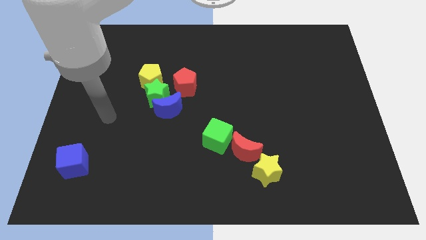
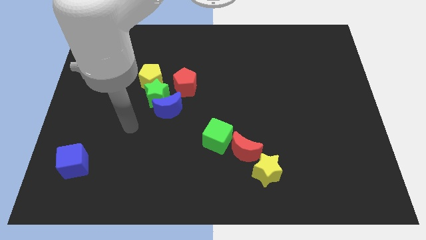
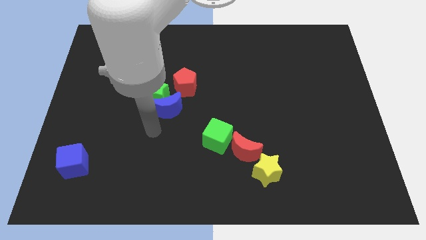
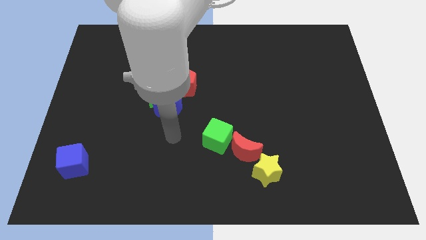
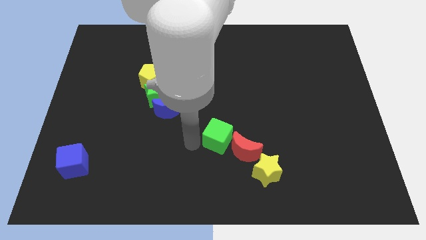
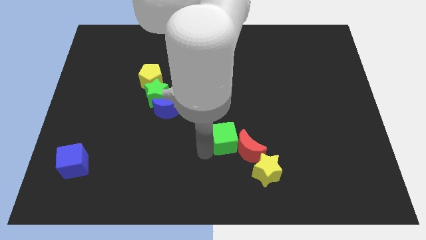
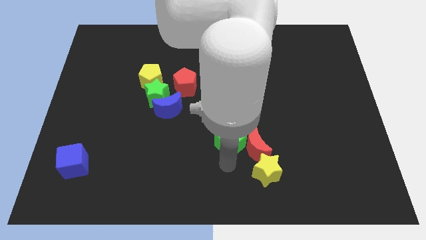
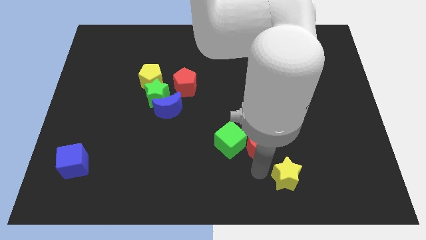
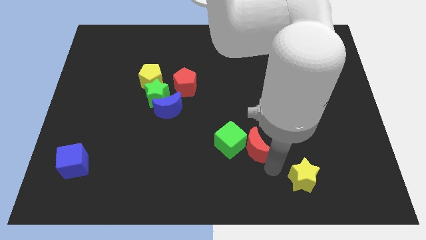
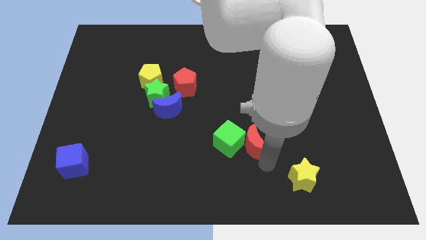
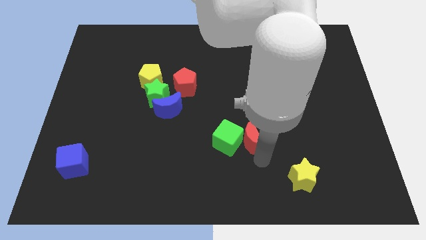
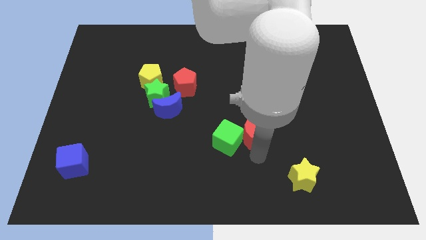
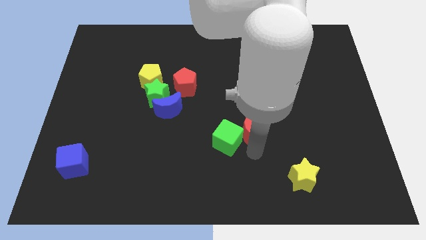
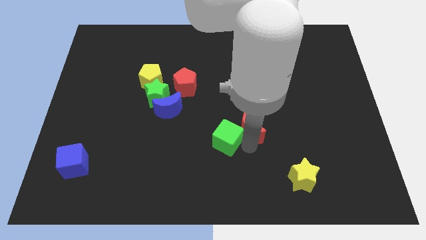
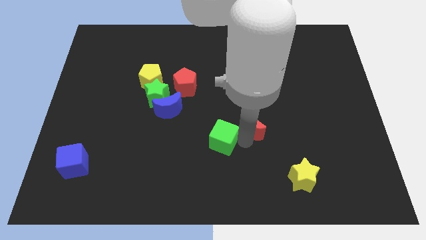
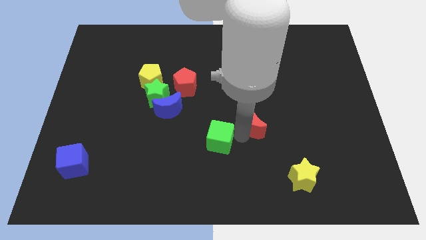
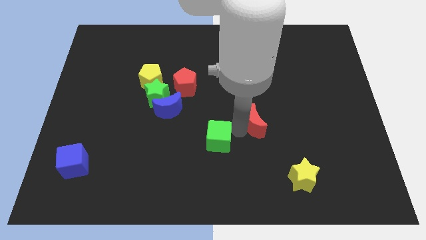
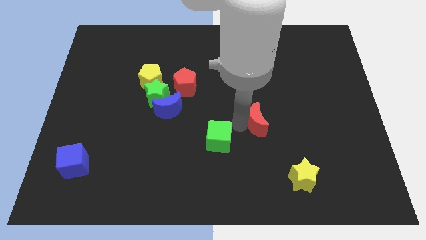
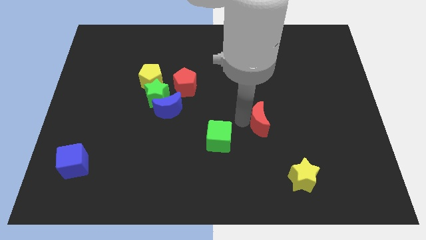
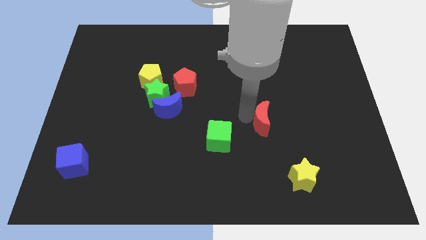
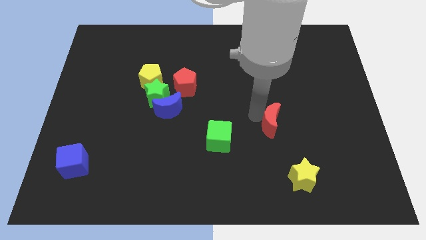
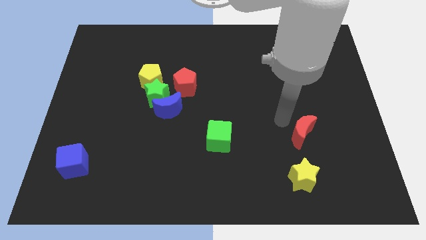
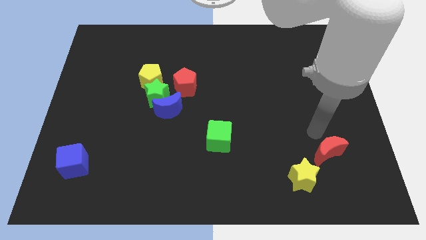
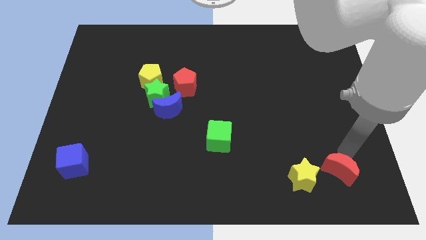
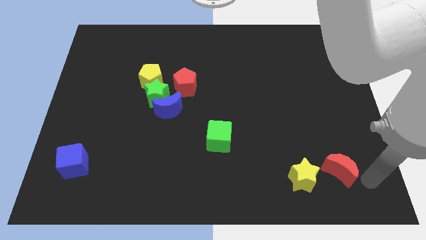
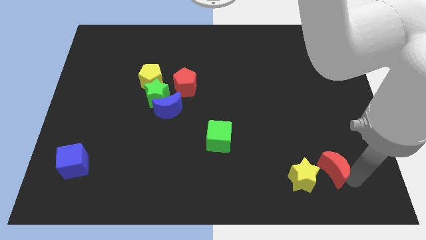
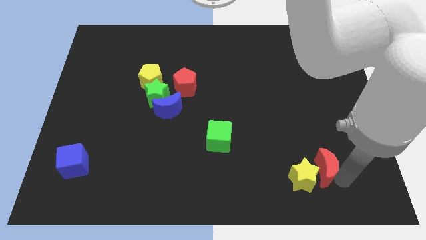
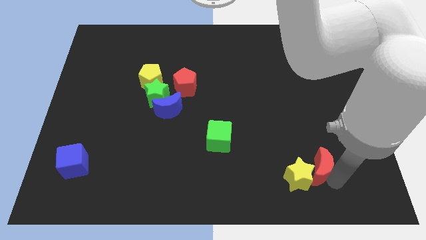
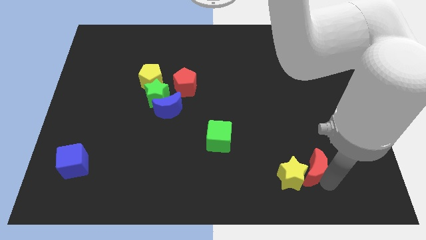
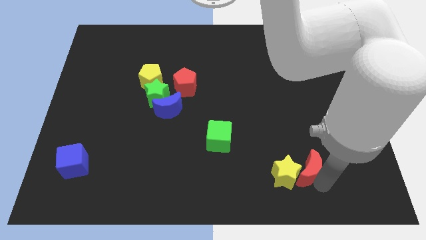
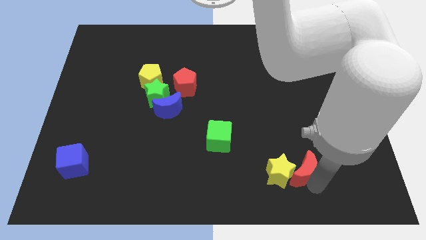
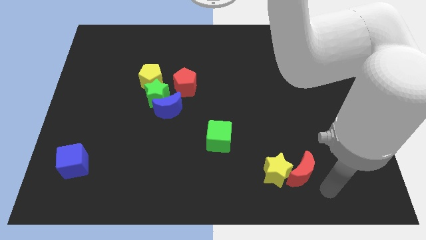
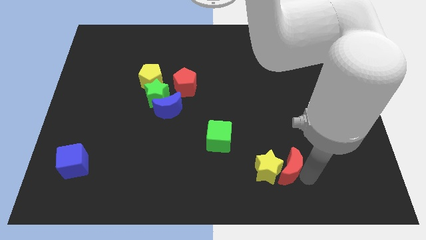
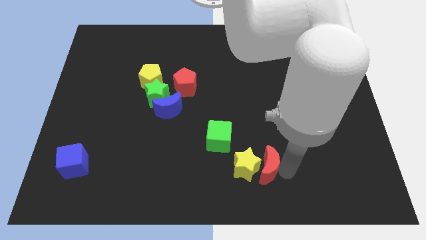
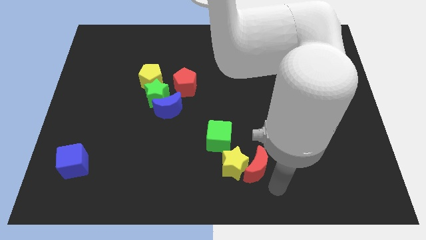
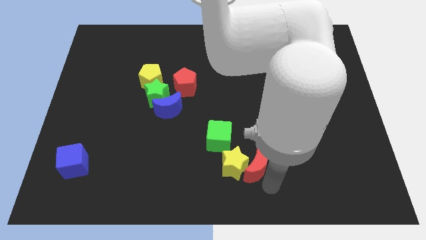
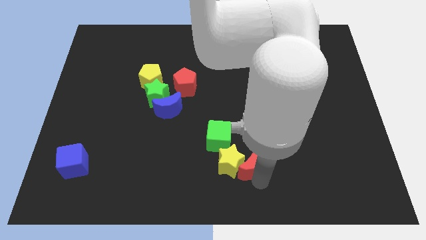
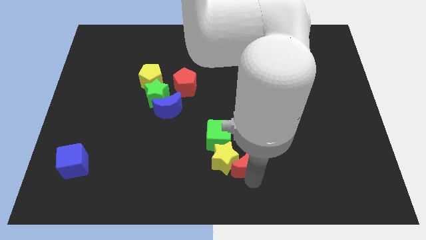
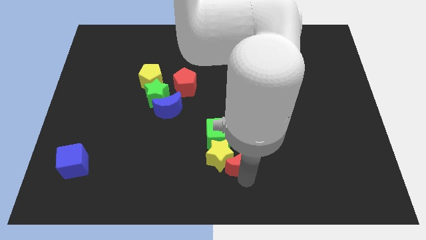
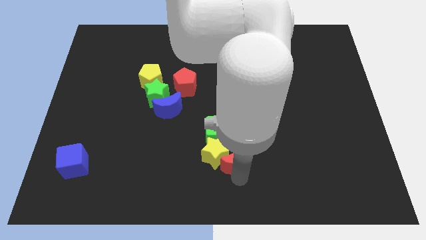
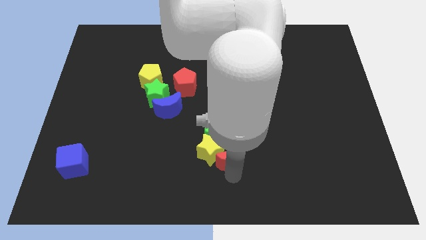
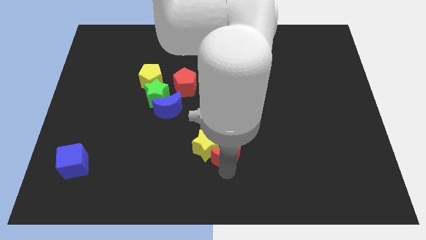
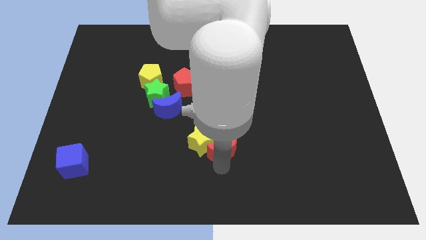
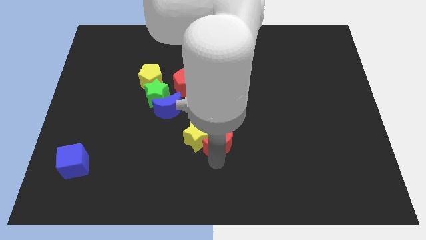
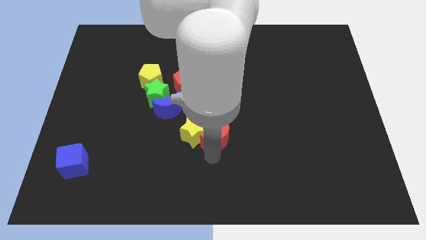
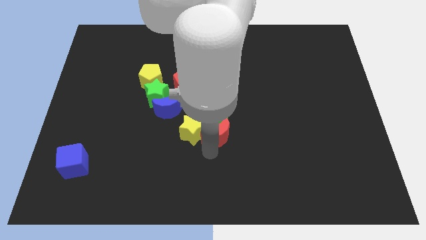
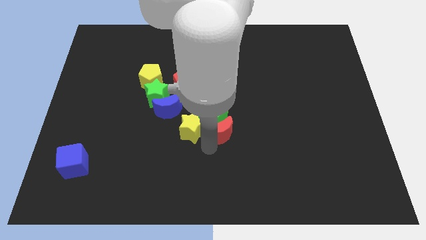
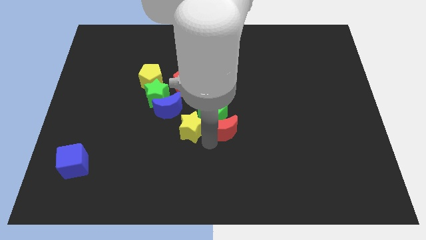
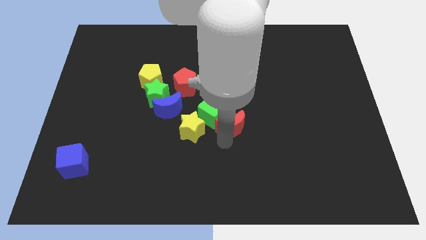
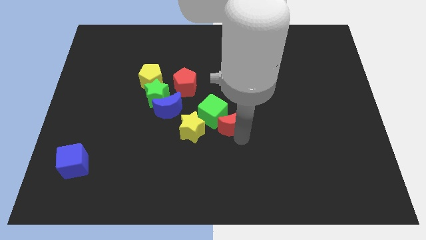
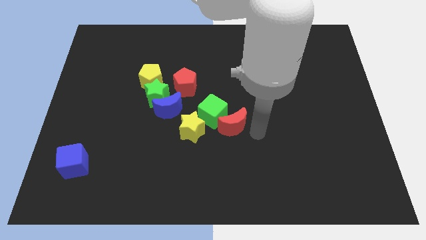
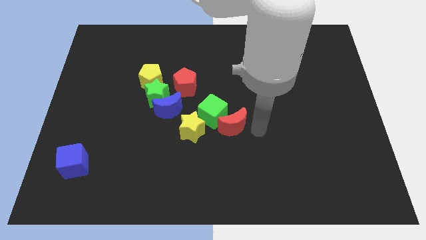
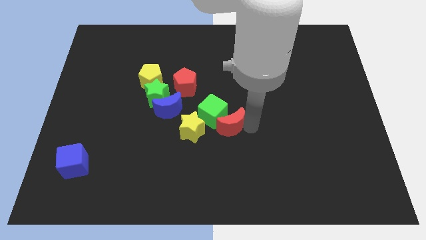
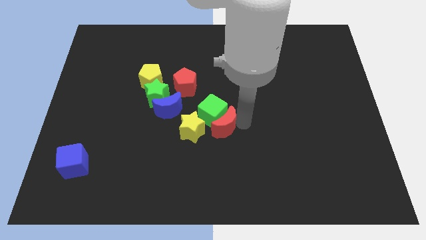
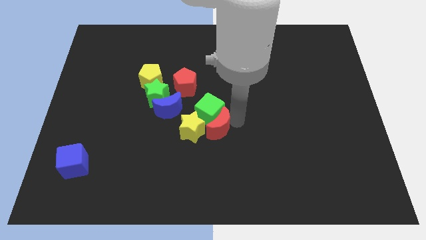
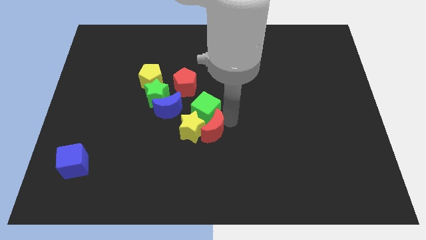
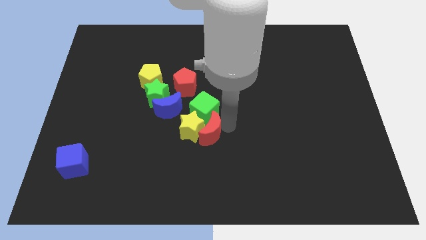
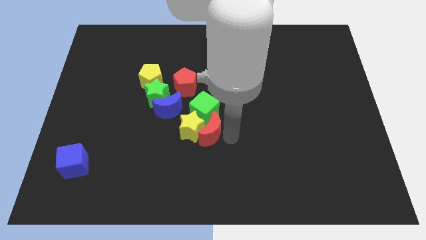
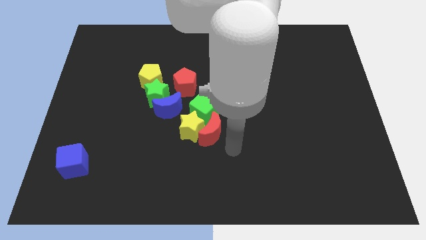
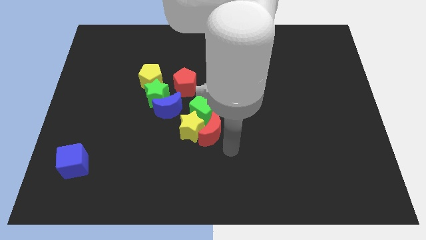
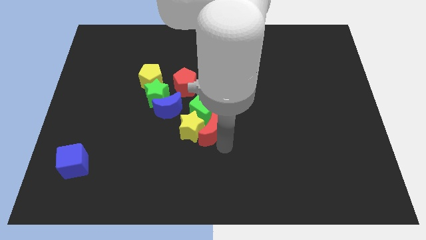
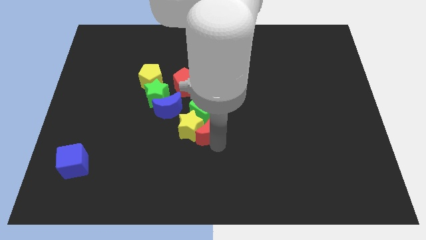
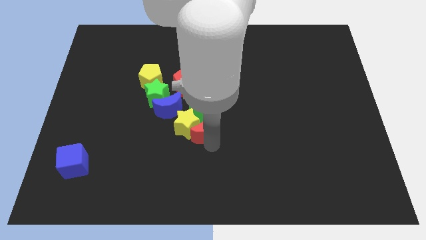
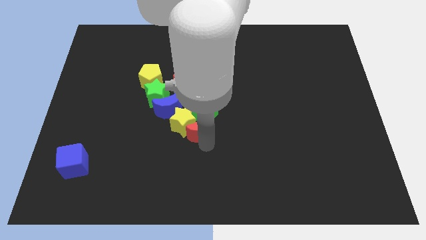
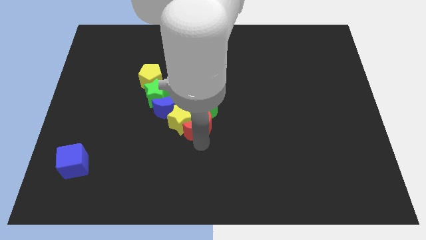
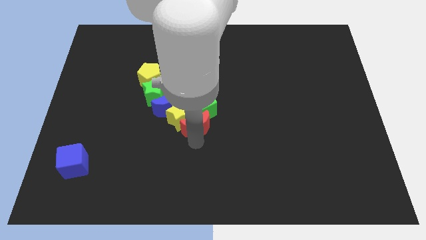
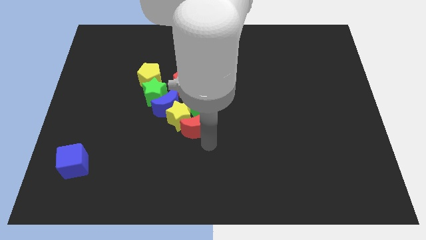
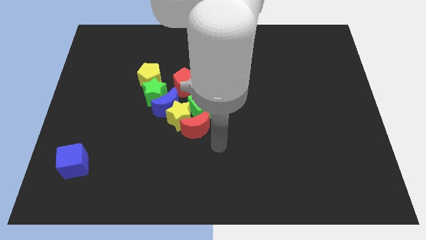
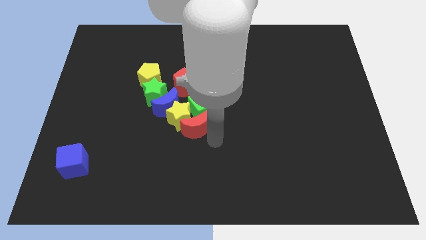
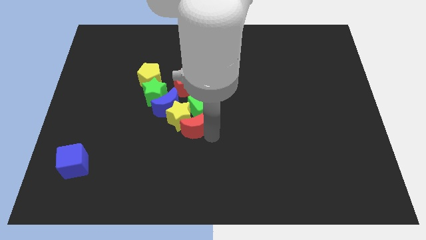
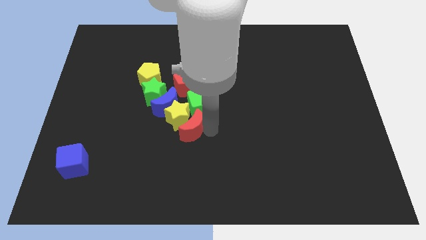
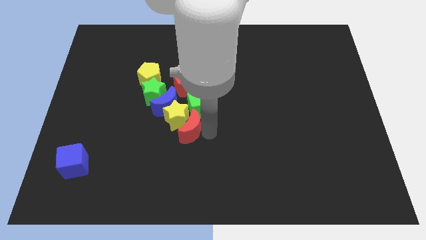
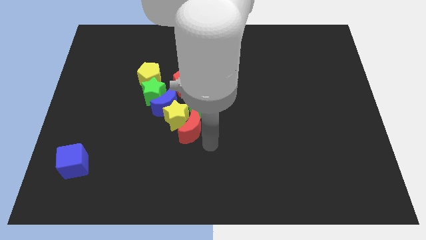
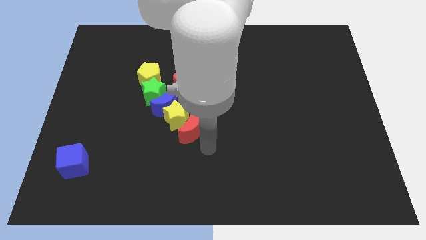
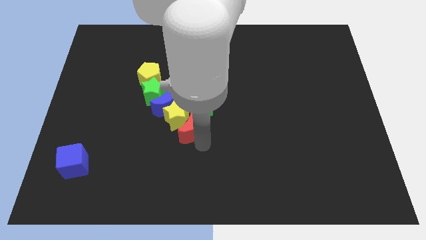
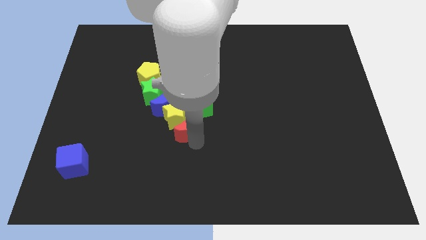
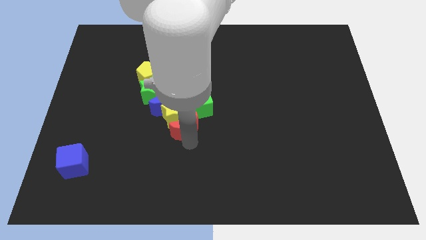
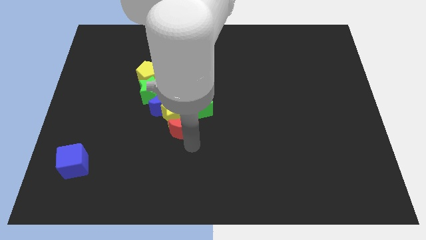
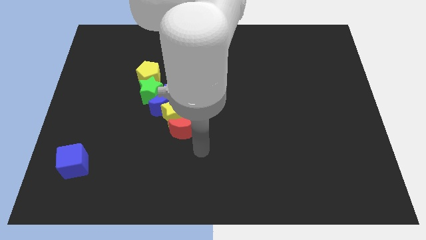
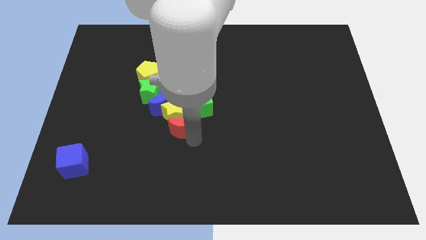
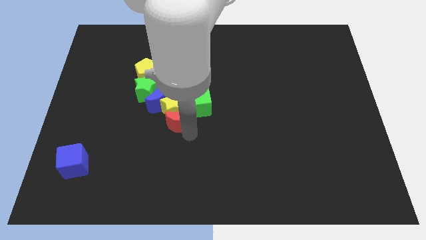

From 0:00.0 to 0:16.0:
push the red moon to the bottom right side of the green star

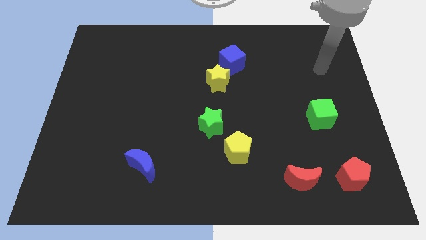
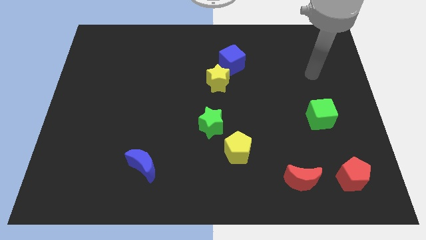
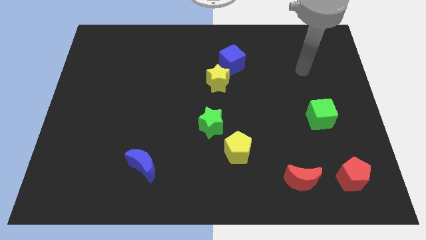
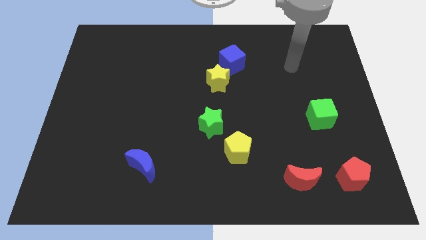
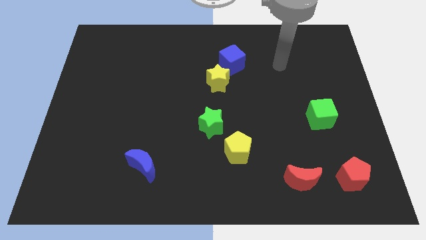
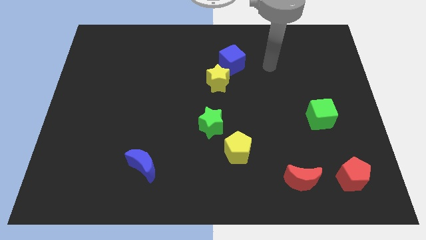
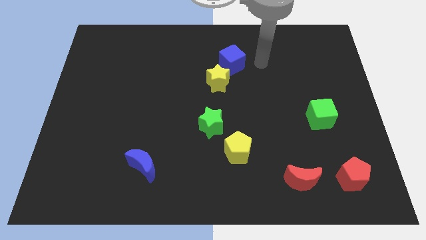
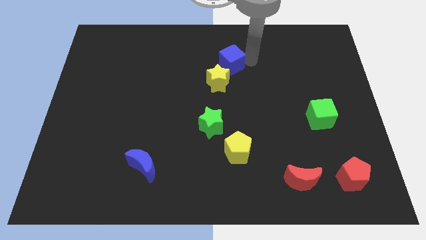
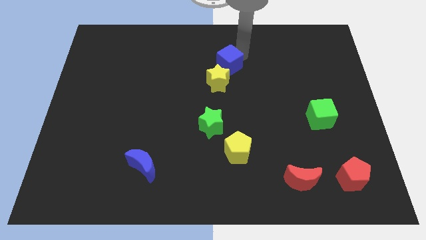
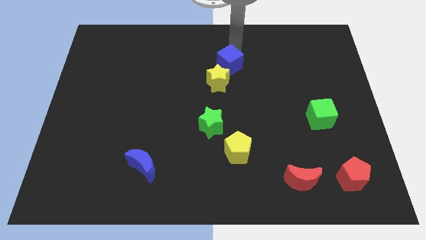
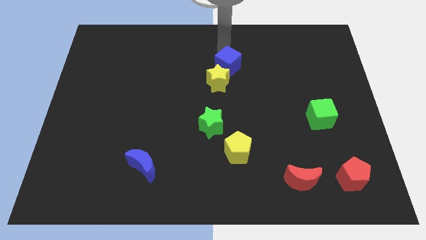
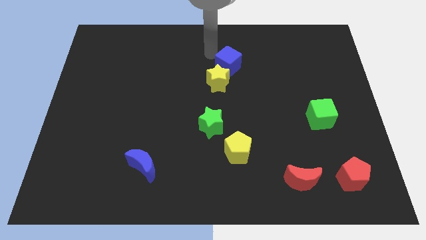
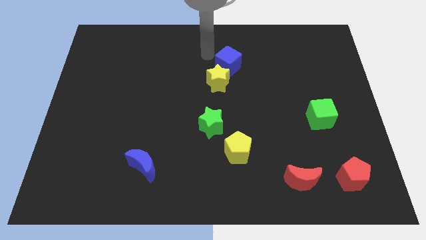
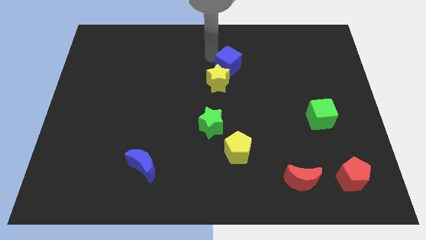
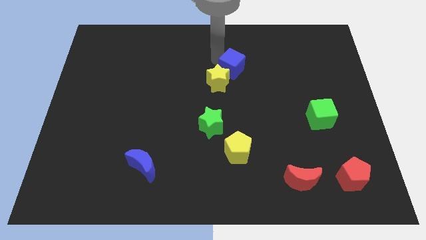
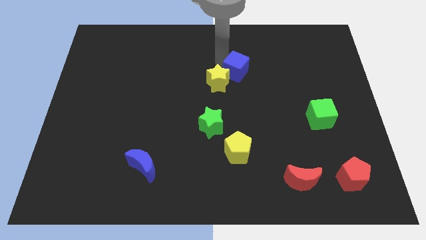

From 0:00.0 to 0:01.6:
move the blue cube just right of the yellow star
